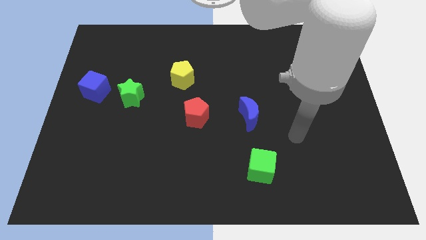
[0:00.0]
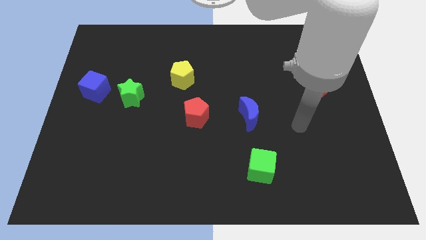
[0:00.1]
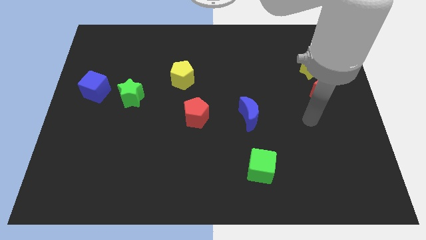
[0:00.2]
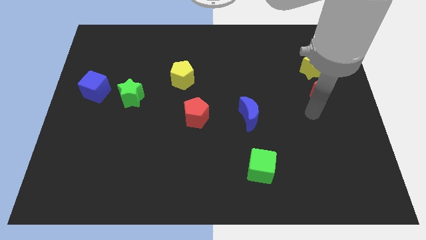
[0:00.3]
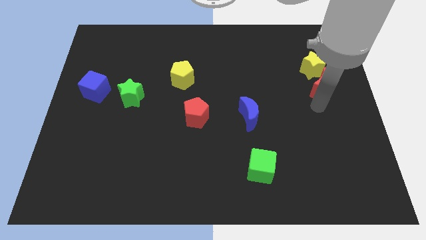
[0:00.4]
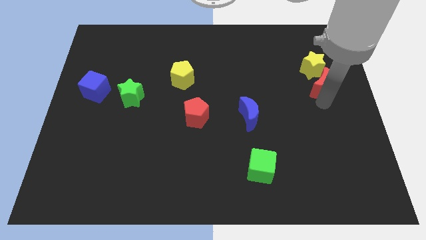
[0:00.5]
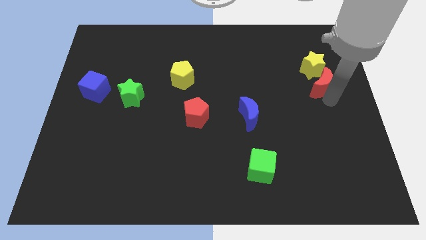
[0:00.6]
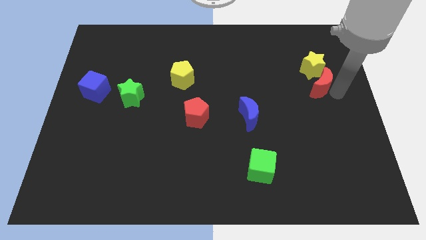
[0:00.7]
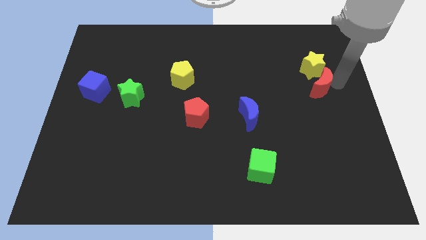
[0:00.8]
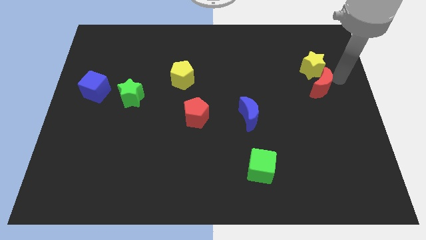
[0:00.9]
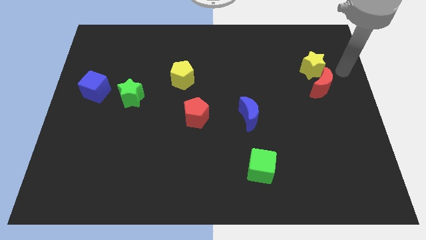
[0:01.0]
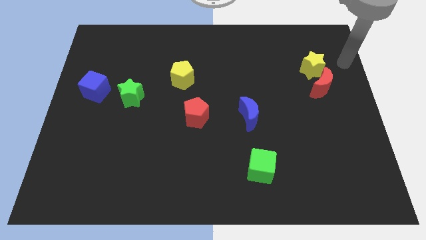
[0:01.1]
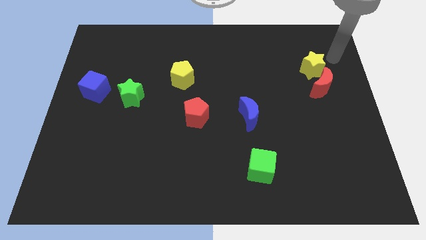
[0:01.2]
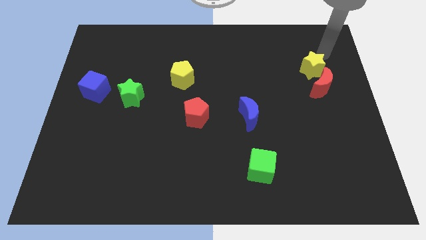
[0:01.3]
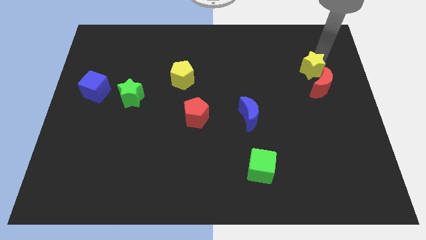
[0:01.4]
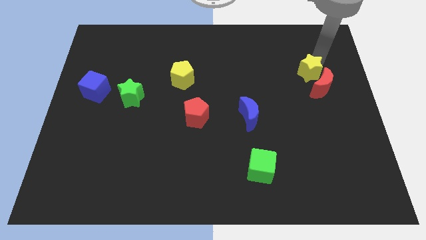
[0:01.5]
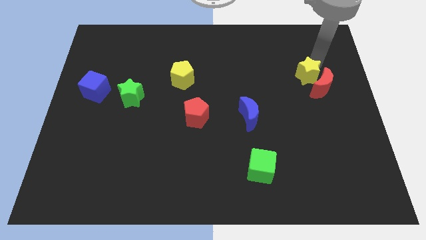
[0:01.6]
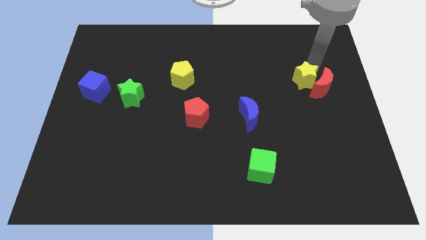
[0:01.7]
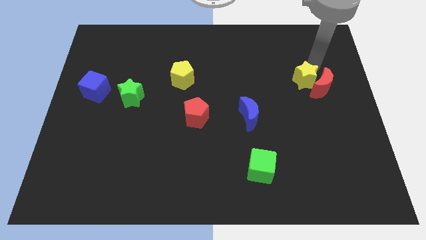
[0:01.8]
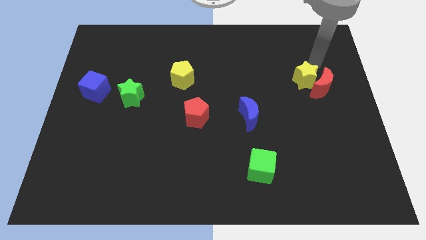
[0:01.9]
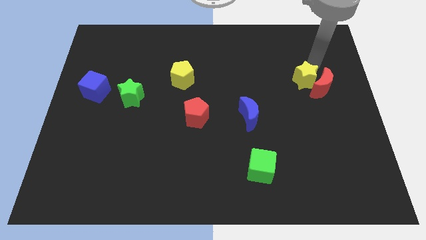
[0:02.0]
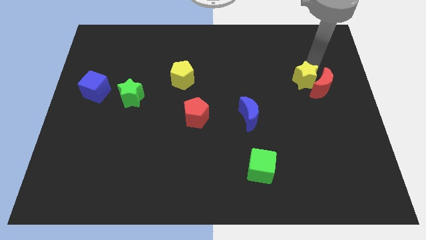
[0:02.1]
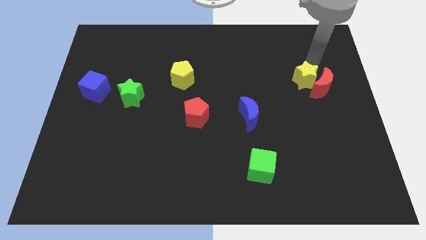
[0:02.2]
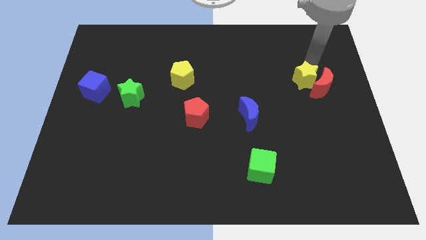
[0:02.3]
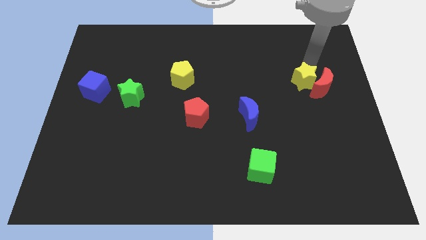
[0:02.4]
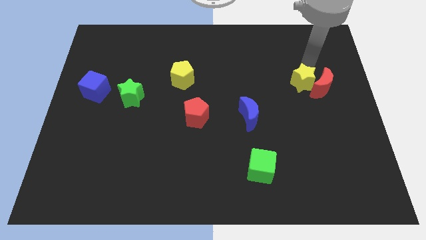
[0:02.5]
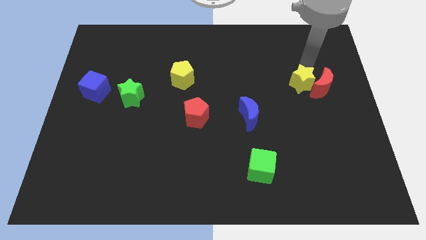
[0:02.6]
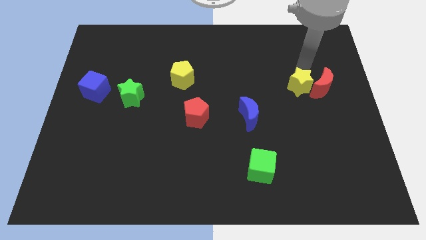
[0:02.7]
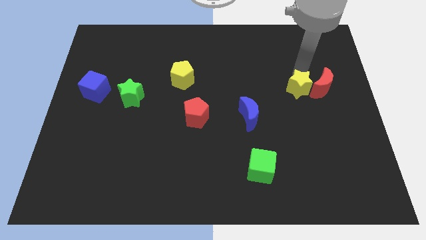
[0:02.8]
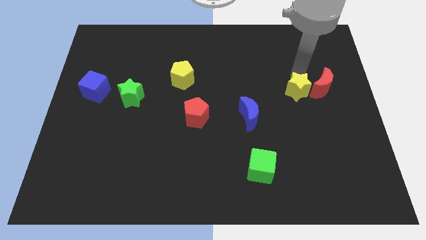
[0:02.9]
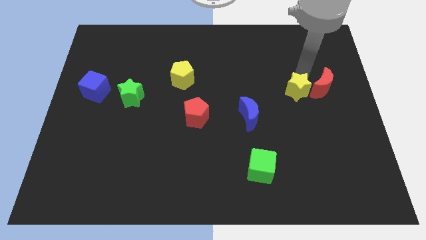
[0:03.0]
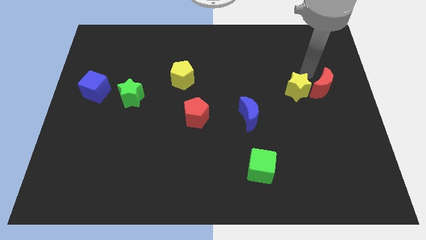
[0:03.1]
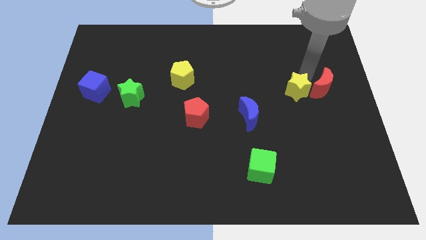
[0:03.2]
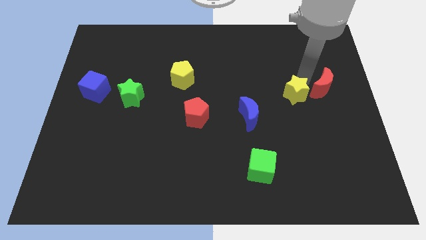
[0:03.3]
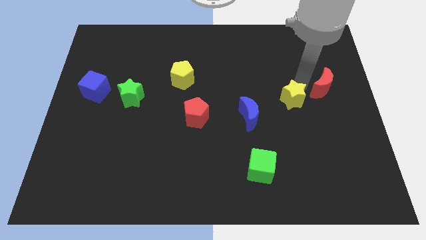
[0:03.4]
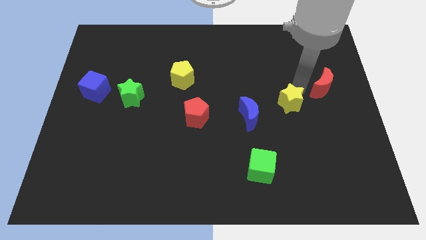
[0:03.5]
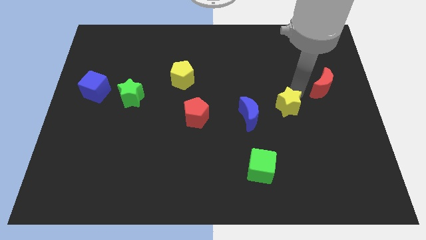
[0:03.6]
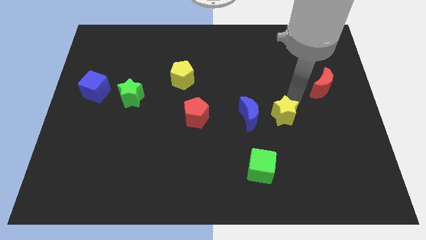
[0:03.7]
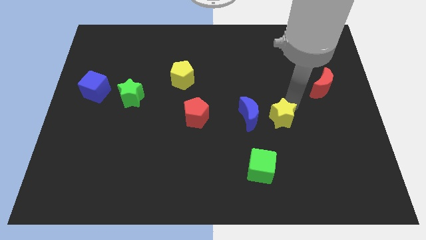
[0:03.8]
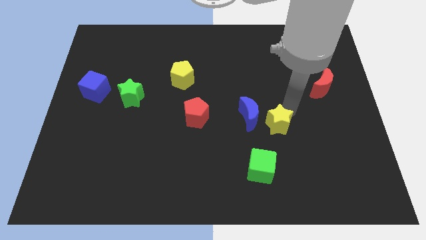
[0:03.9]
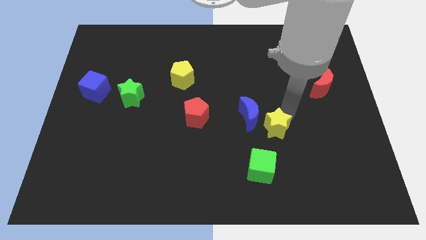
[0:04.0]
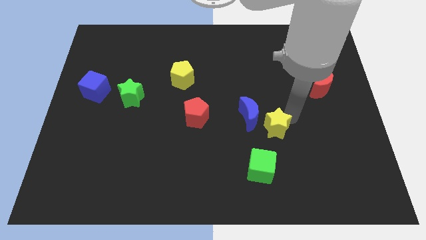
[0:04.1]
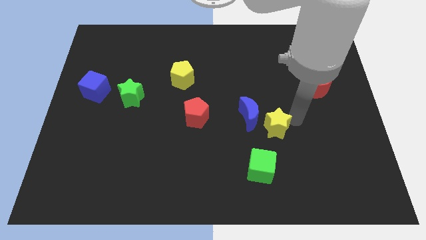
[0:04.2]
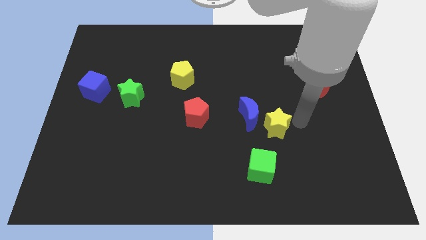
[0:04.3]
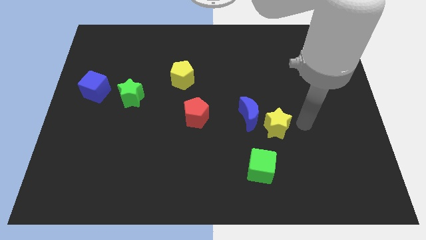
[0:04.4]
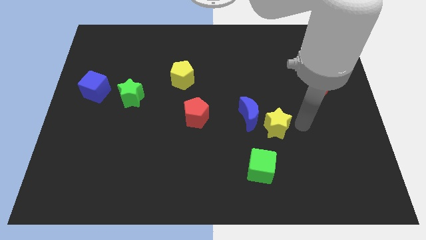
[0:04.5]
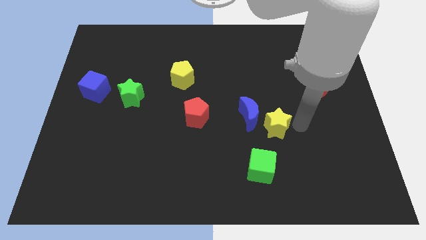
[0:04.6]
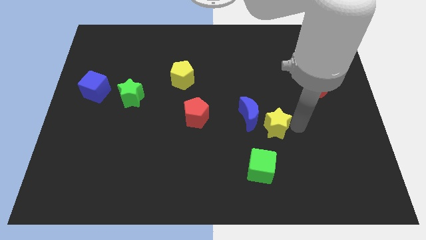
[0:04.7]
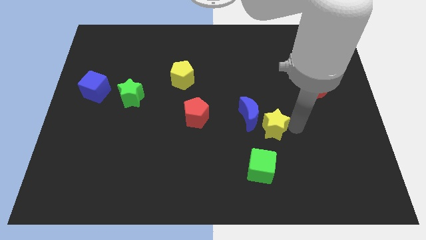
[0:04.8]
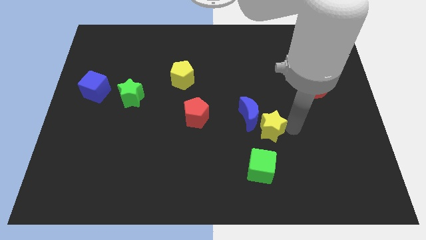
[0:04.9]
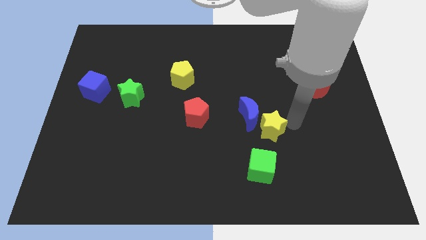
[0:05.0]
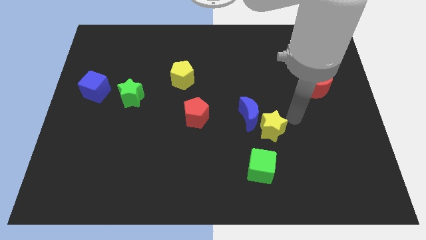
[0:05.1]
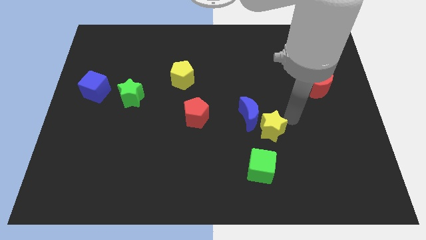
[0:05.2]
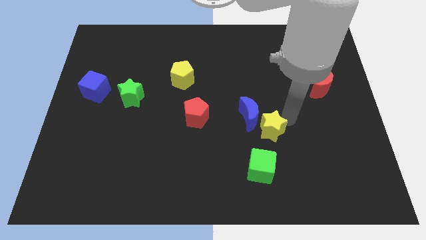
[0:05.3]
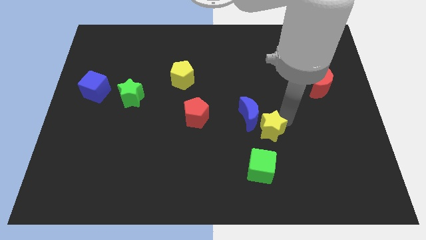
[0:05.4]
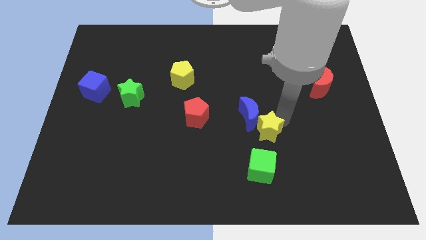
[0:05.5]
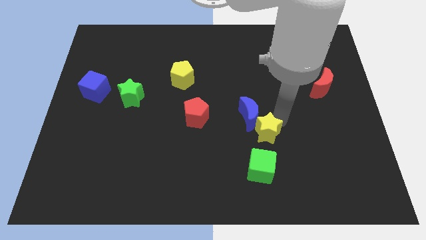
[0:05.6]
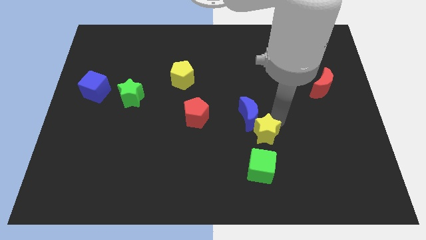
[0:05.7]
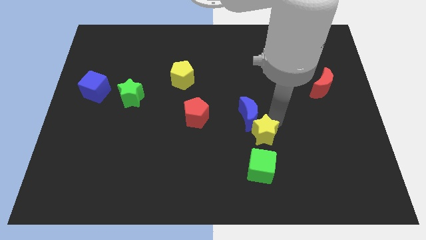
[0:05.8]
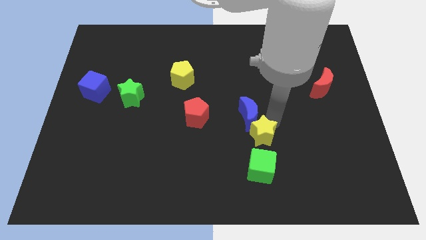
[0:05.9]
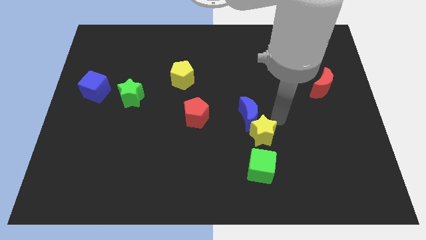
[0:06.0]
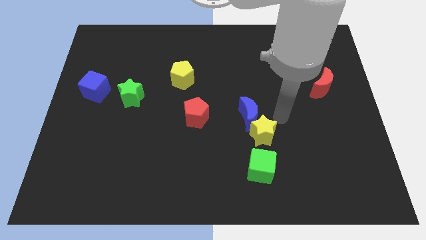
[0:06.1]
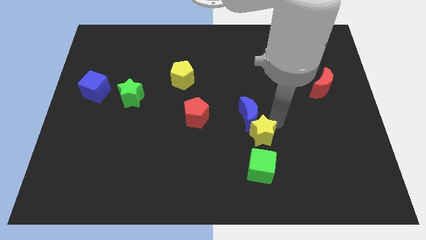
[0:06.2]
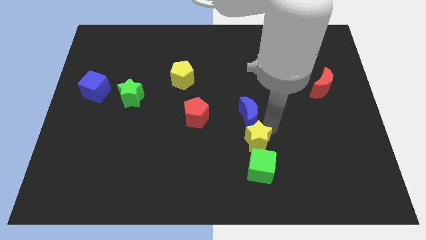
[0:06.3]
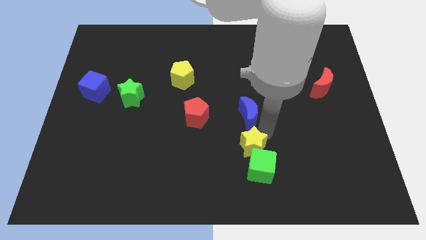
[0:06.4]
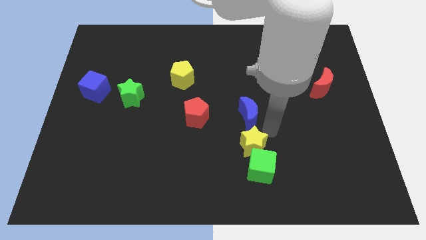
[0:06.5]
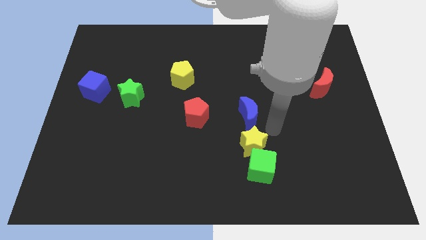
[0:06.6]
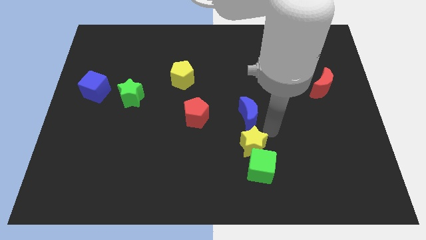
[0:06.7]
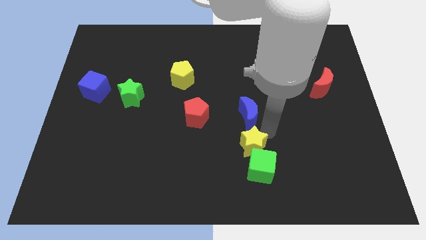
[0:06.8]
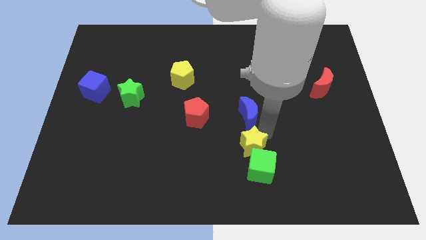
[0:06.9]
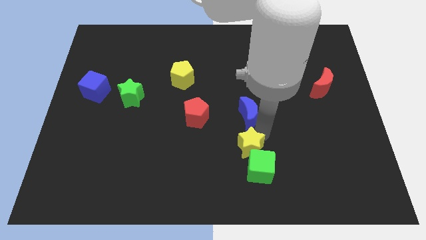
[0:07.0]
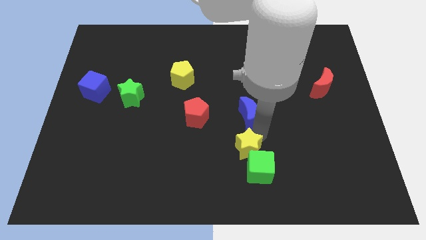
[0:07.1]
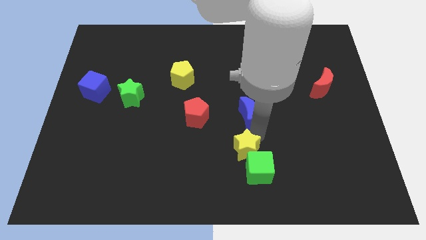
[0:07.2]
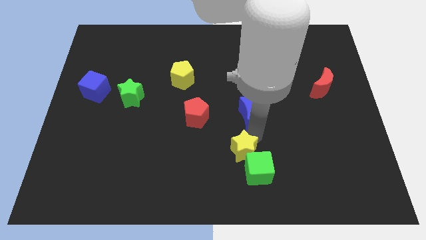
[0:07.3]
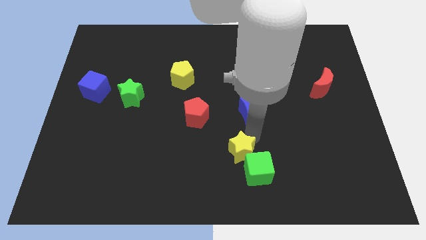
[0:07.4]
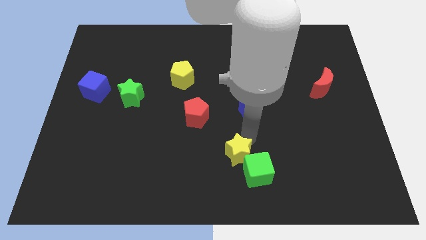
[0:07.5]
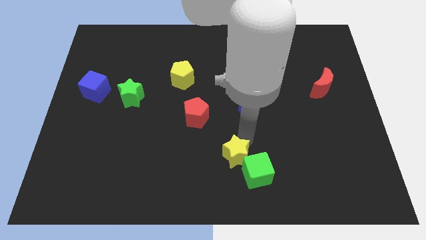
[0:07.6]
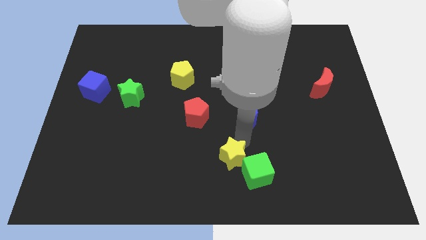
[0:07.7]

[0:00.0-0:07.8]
push the yellow star to the bottom side
